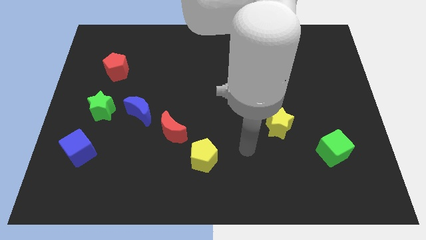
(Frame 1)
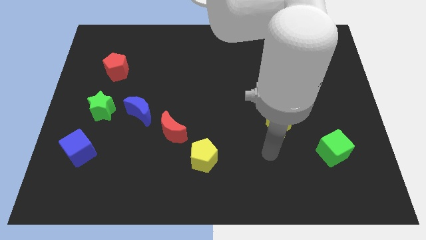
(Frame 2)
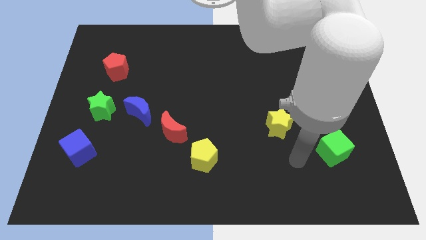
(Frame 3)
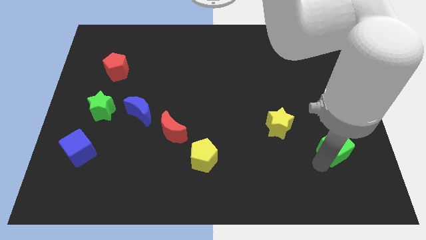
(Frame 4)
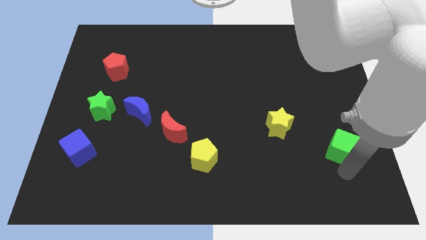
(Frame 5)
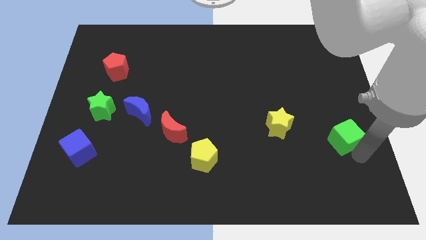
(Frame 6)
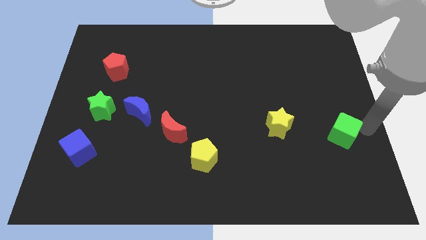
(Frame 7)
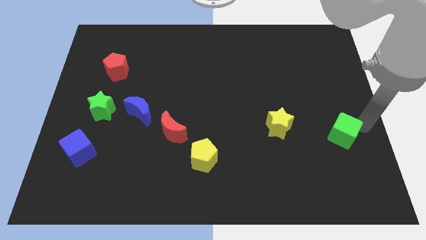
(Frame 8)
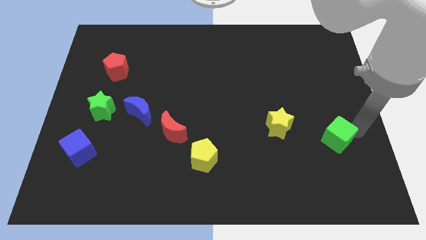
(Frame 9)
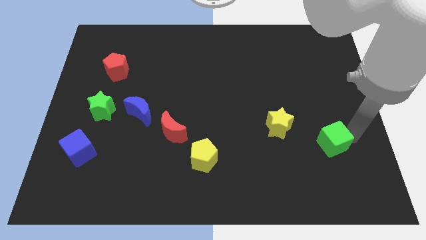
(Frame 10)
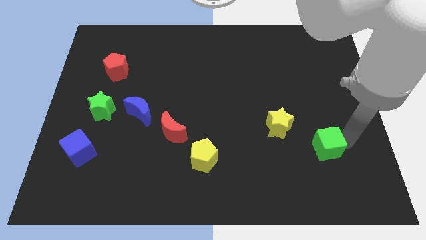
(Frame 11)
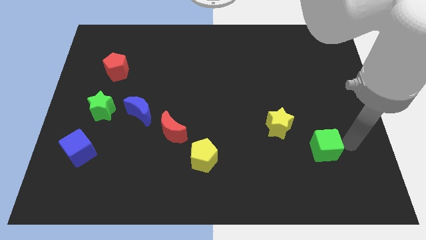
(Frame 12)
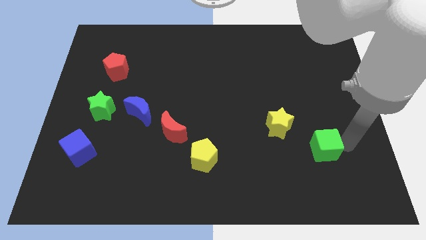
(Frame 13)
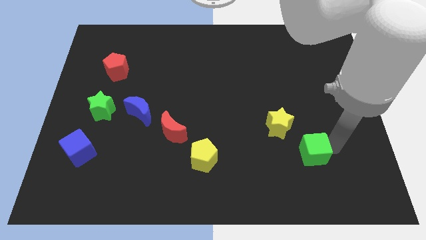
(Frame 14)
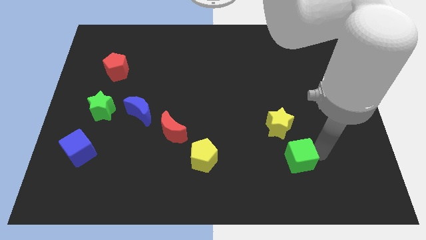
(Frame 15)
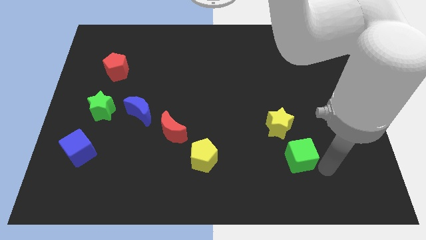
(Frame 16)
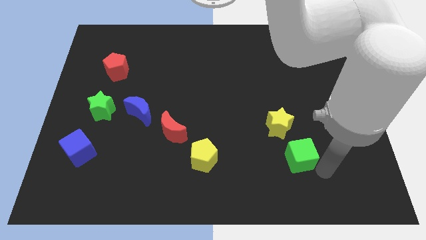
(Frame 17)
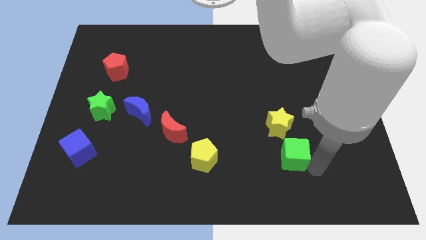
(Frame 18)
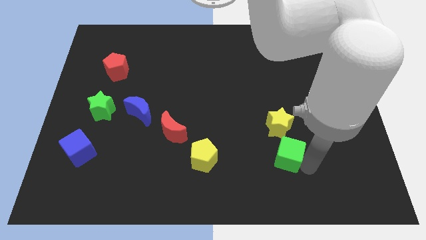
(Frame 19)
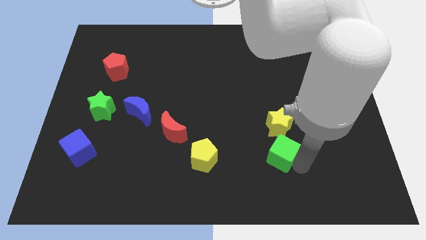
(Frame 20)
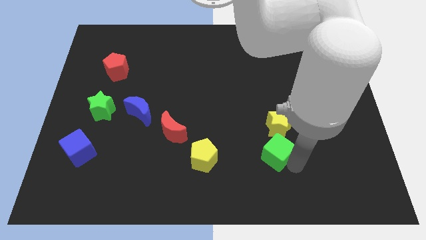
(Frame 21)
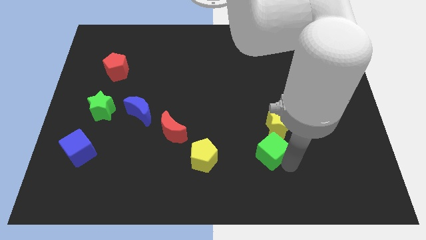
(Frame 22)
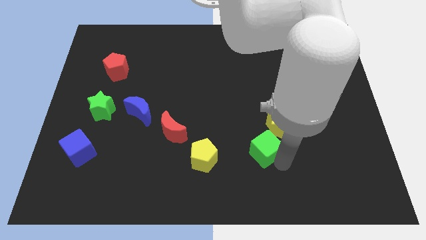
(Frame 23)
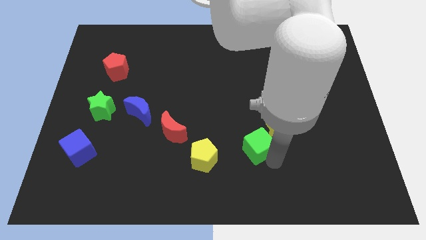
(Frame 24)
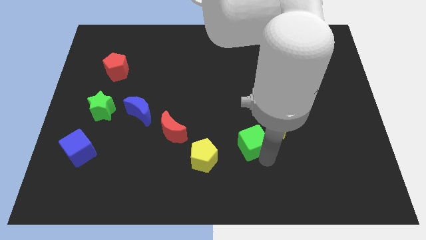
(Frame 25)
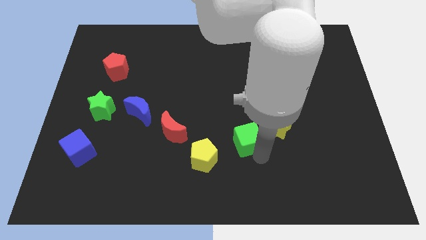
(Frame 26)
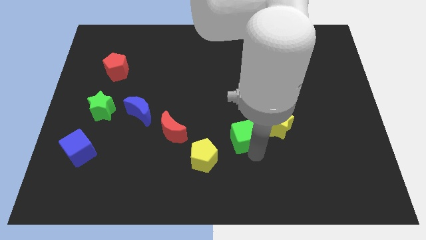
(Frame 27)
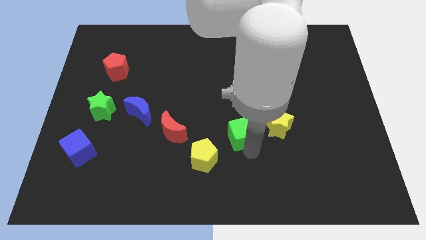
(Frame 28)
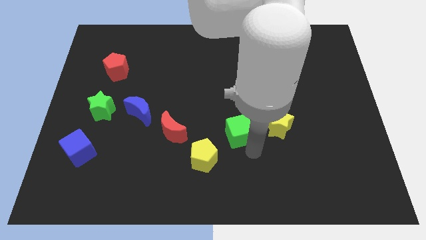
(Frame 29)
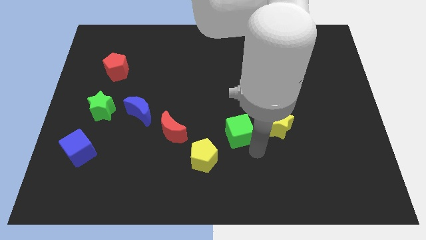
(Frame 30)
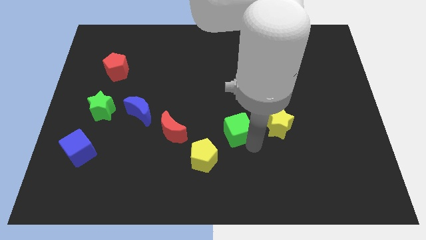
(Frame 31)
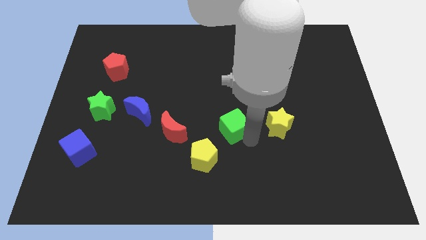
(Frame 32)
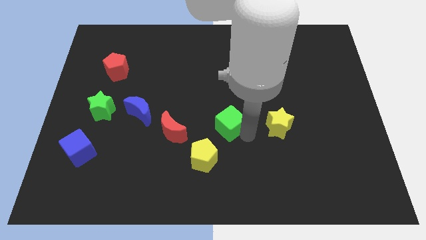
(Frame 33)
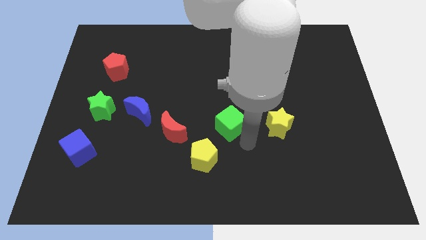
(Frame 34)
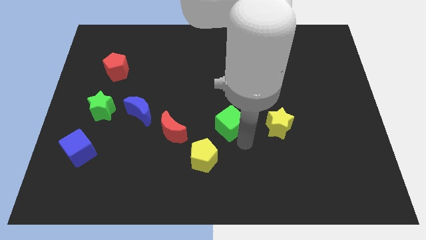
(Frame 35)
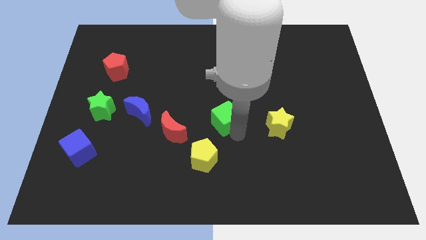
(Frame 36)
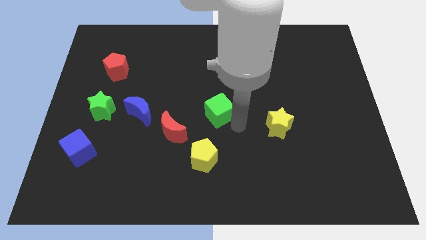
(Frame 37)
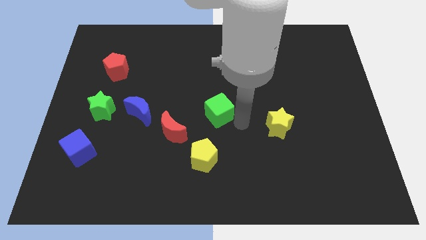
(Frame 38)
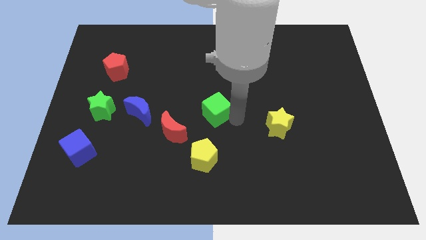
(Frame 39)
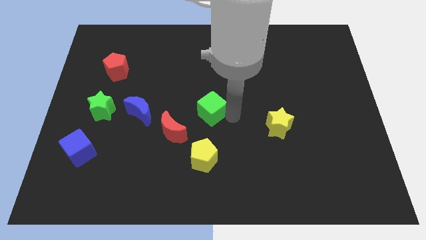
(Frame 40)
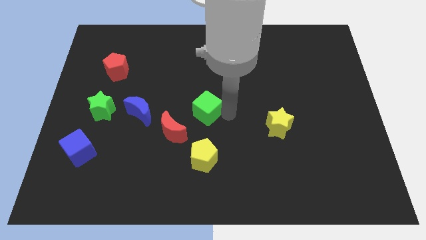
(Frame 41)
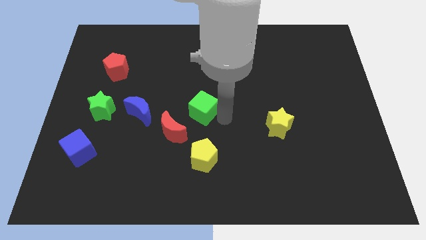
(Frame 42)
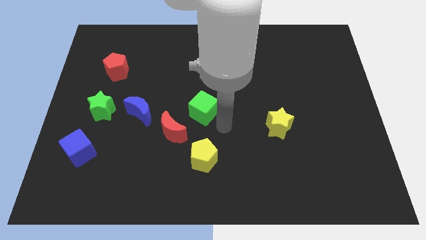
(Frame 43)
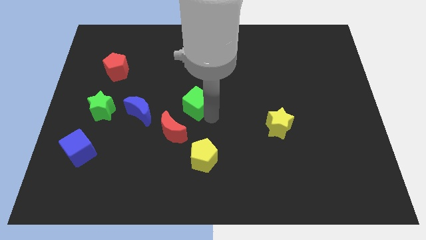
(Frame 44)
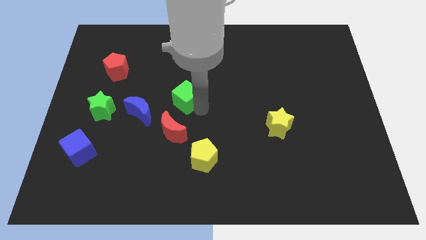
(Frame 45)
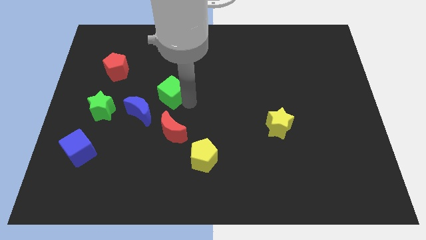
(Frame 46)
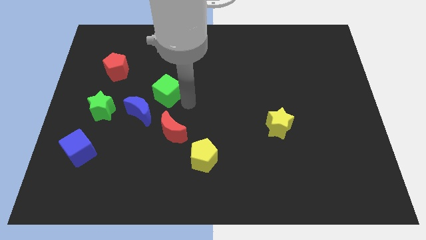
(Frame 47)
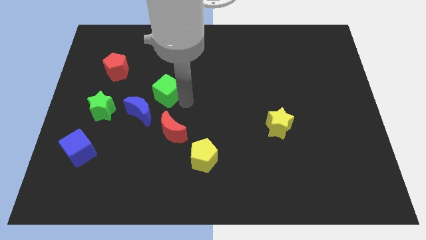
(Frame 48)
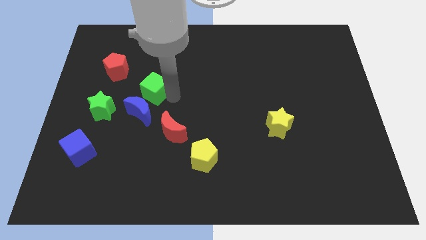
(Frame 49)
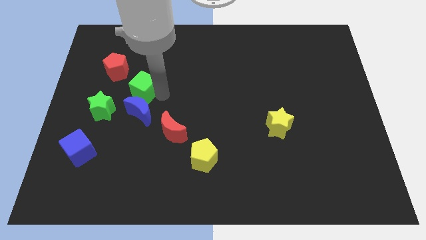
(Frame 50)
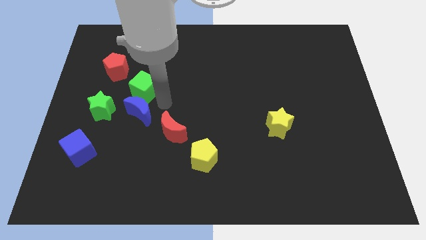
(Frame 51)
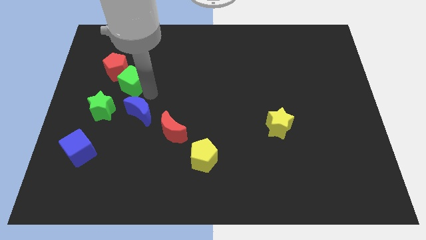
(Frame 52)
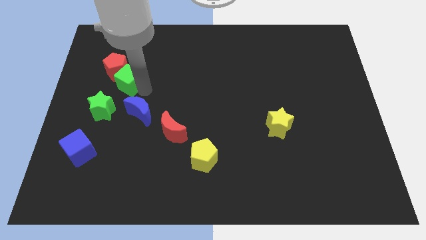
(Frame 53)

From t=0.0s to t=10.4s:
push the green cube next to the red pentagon
